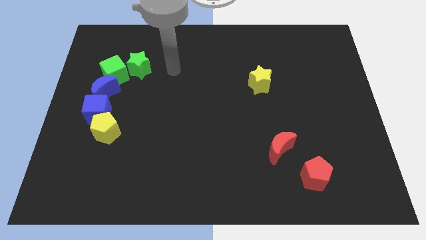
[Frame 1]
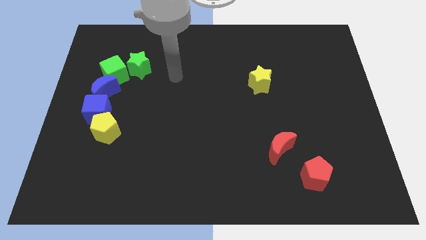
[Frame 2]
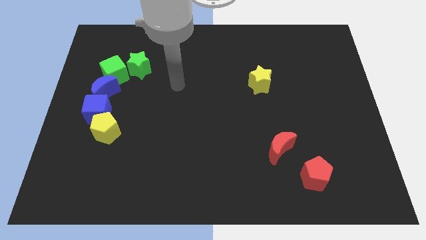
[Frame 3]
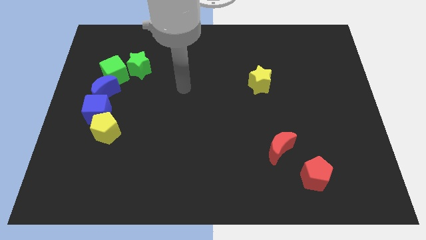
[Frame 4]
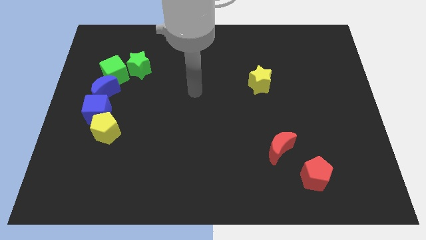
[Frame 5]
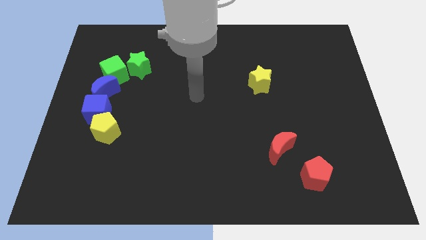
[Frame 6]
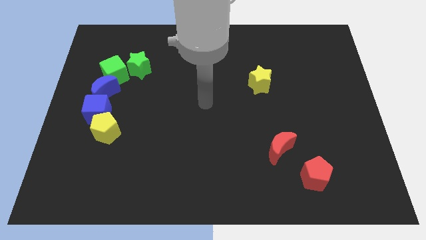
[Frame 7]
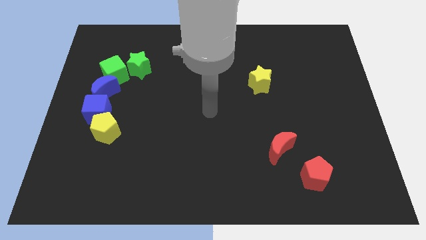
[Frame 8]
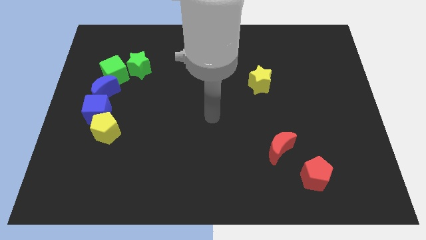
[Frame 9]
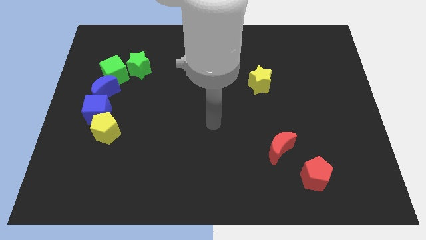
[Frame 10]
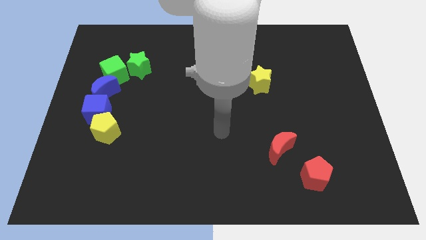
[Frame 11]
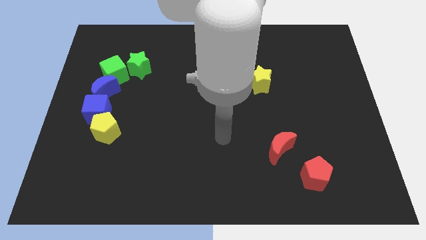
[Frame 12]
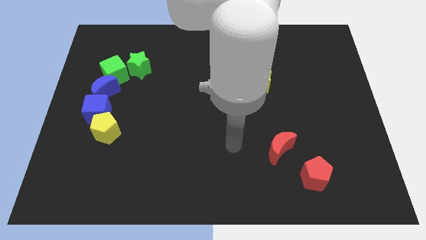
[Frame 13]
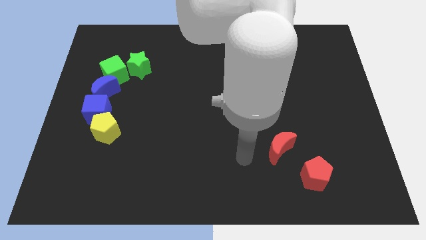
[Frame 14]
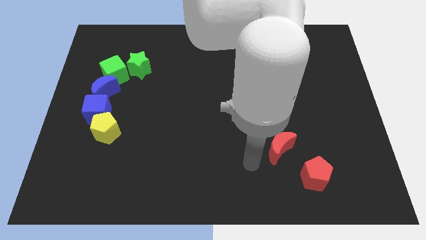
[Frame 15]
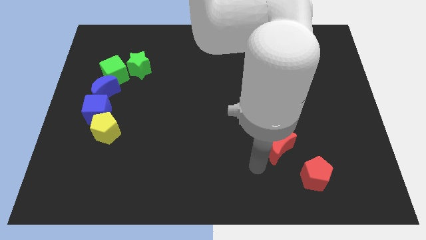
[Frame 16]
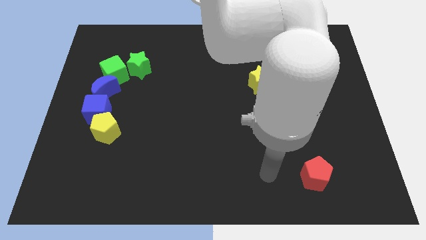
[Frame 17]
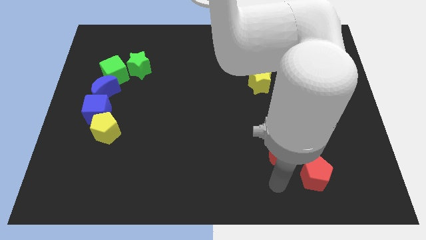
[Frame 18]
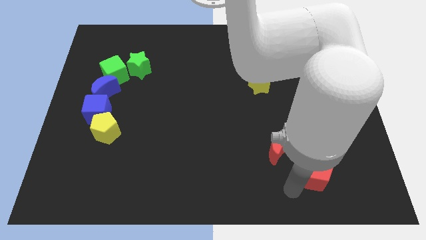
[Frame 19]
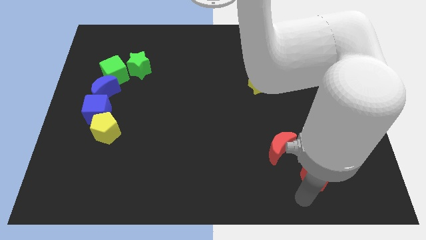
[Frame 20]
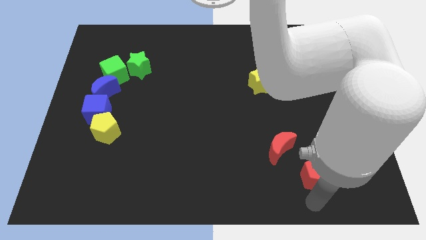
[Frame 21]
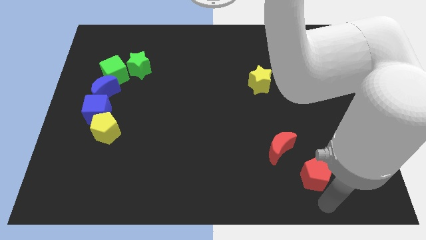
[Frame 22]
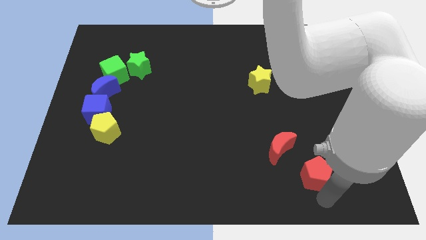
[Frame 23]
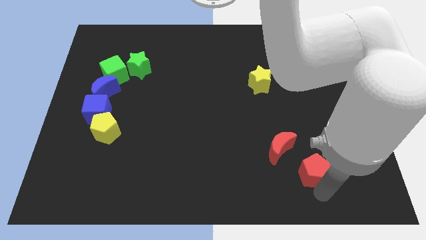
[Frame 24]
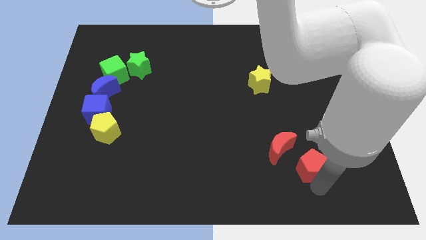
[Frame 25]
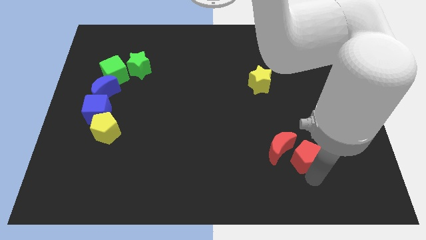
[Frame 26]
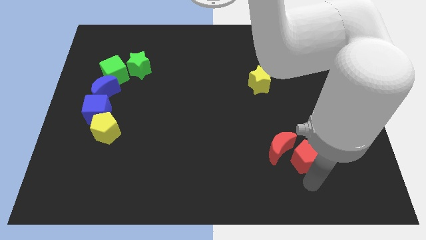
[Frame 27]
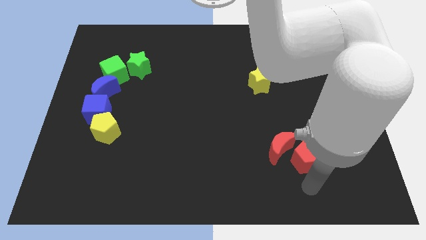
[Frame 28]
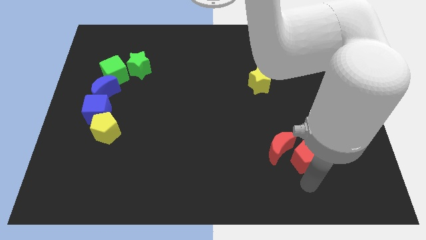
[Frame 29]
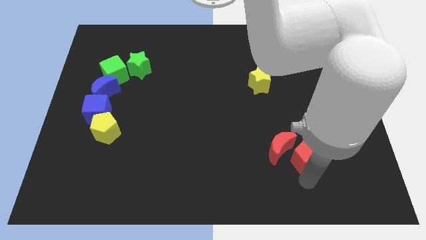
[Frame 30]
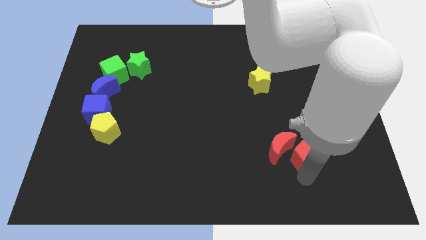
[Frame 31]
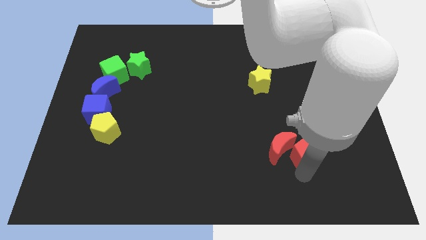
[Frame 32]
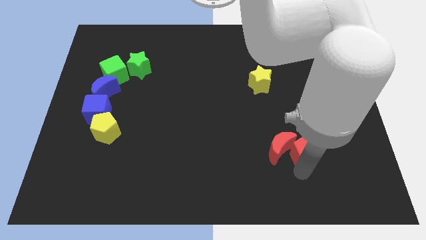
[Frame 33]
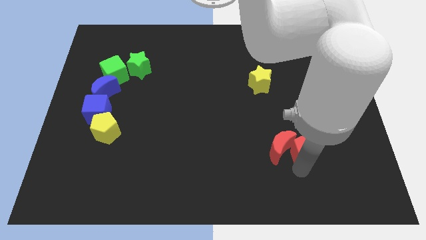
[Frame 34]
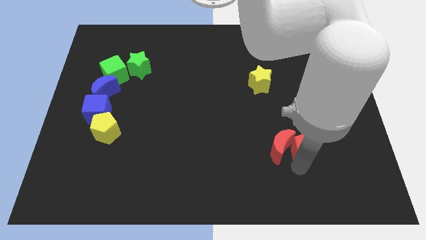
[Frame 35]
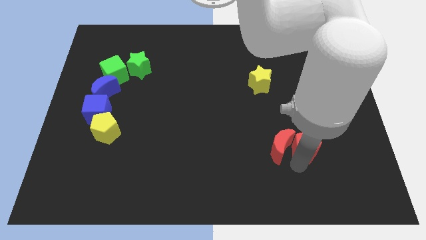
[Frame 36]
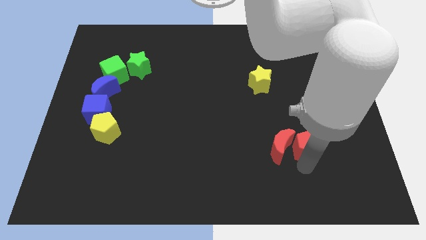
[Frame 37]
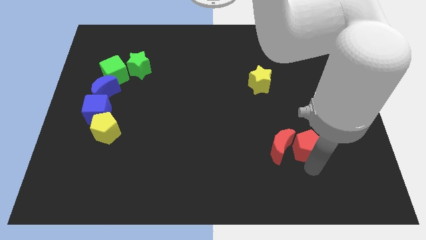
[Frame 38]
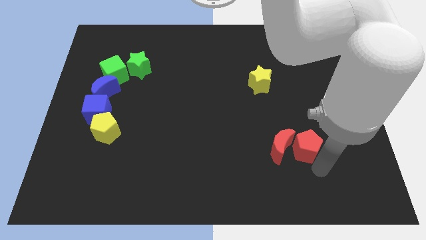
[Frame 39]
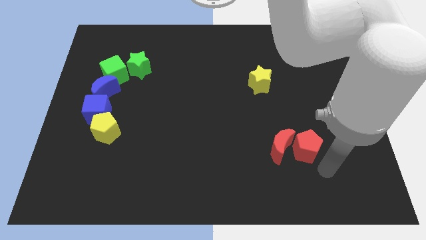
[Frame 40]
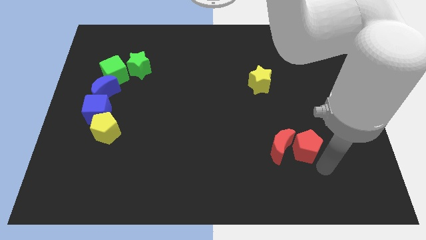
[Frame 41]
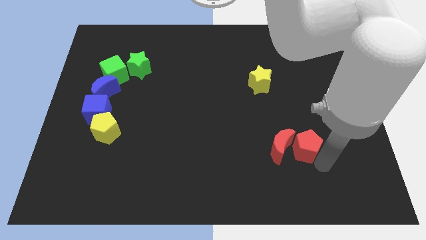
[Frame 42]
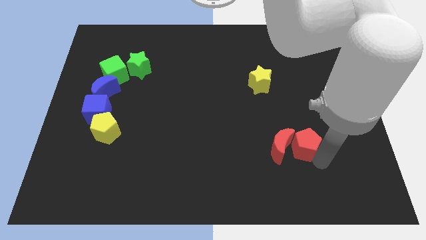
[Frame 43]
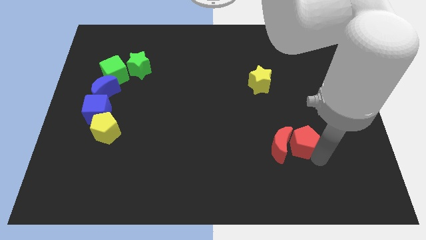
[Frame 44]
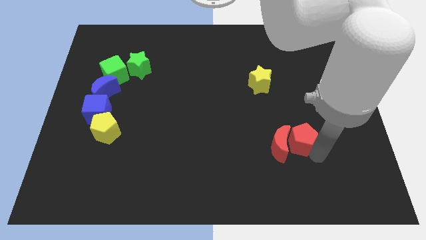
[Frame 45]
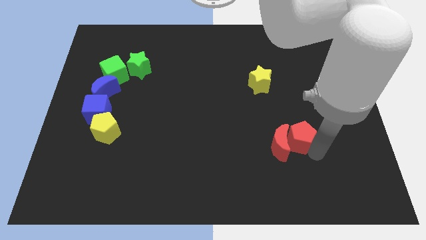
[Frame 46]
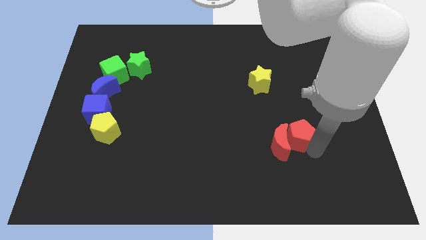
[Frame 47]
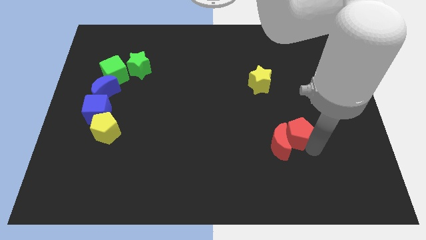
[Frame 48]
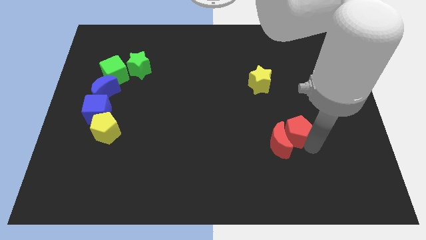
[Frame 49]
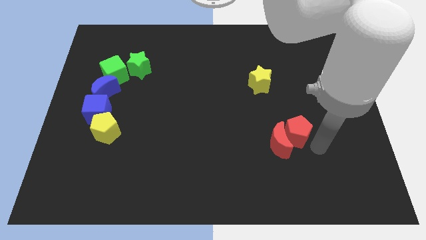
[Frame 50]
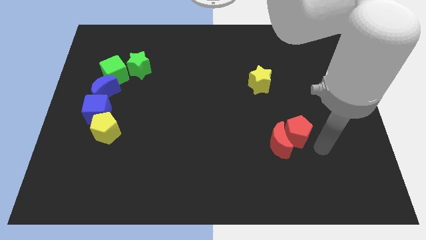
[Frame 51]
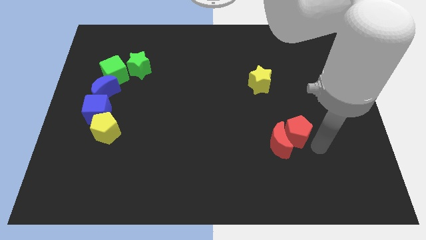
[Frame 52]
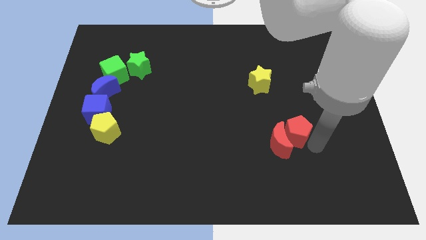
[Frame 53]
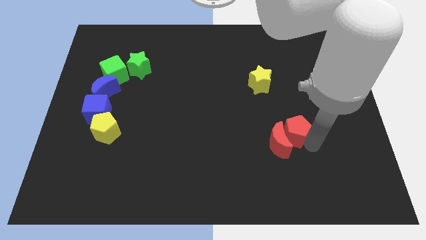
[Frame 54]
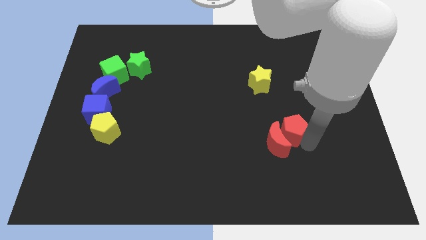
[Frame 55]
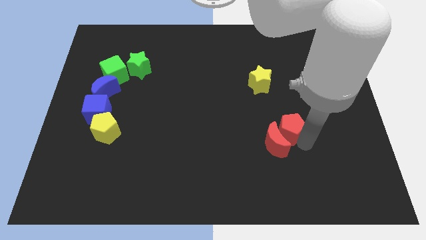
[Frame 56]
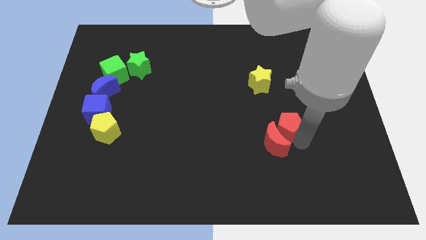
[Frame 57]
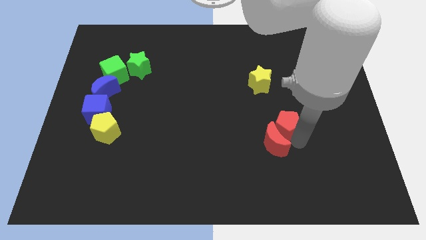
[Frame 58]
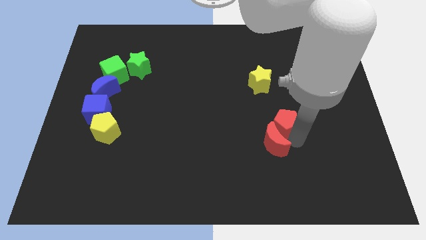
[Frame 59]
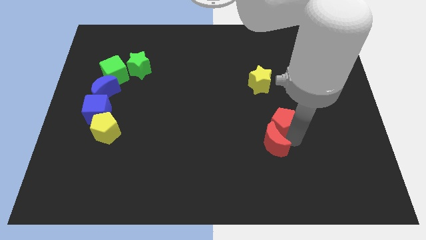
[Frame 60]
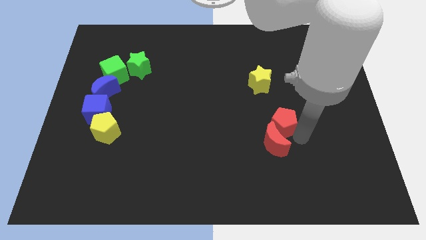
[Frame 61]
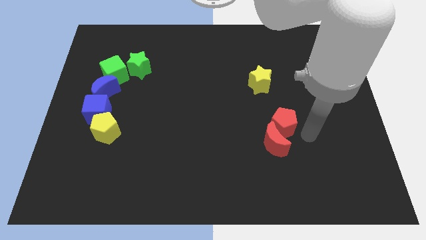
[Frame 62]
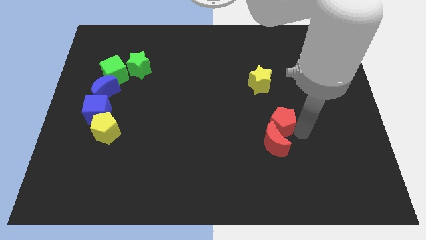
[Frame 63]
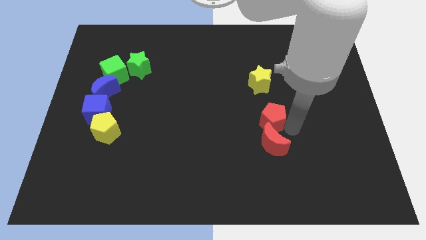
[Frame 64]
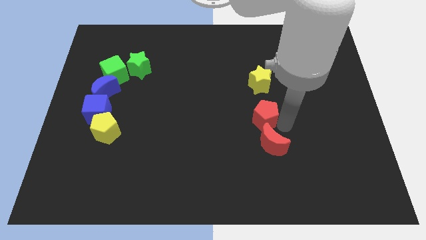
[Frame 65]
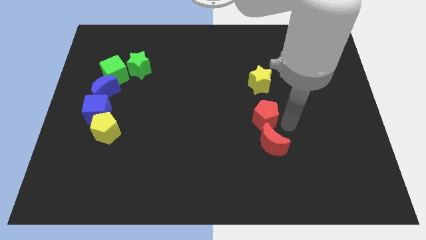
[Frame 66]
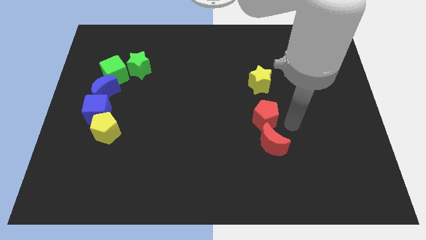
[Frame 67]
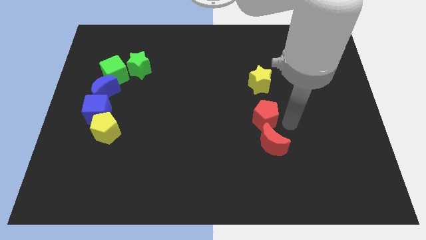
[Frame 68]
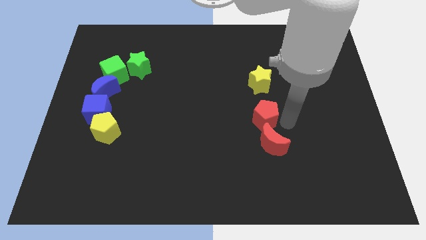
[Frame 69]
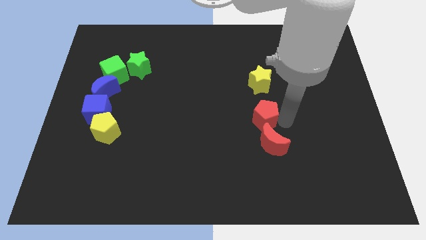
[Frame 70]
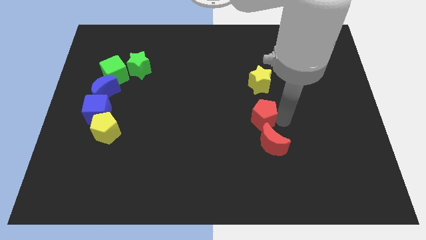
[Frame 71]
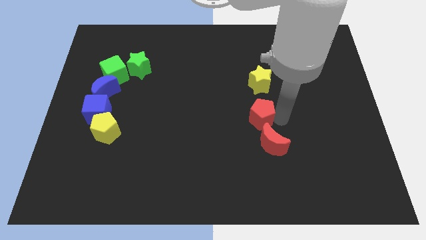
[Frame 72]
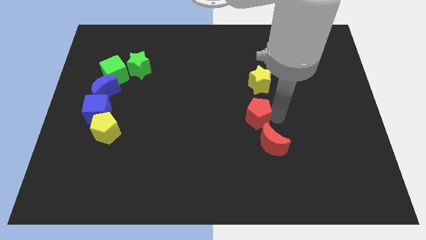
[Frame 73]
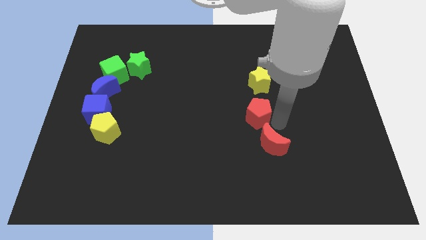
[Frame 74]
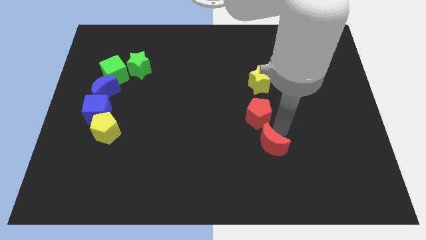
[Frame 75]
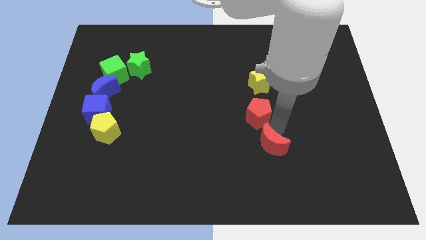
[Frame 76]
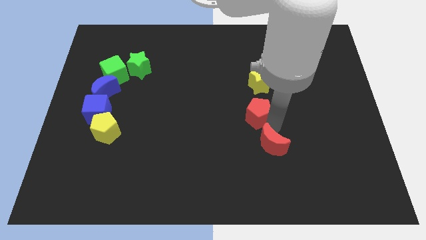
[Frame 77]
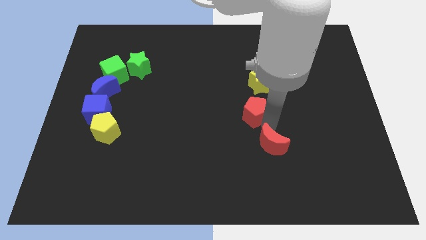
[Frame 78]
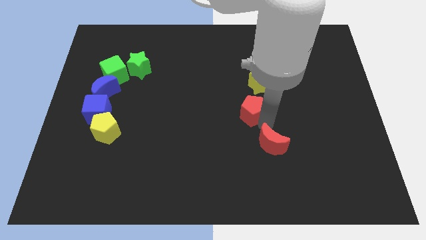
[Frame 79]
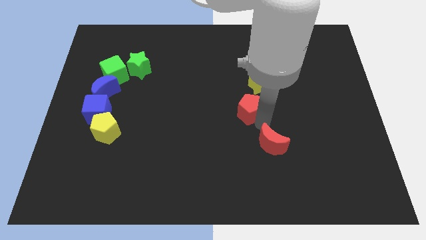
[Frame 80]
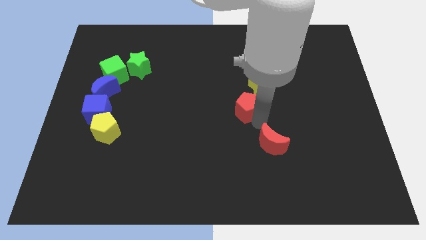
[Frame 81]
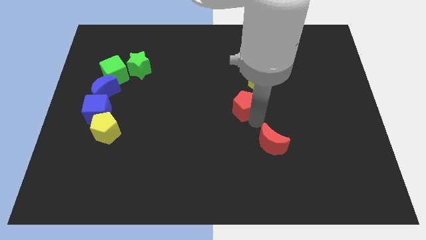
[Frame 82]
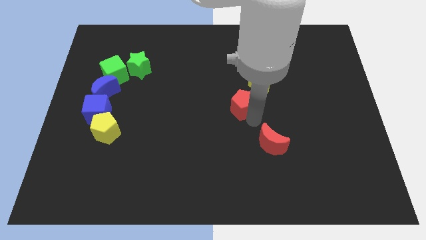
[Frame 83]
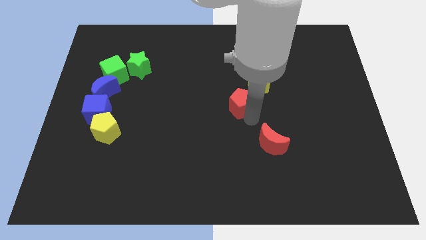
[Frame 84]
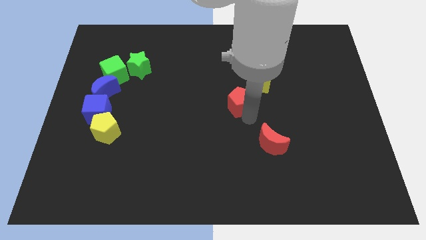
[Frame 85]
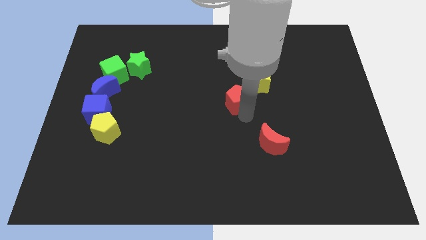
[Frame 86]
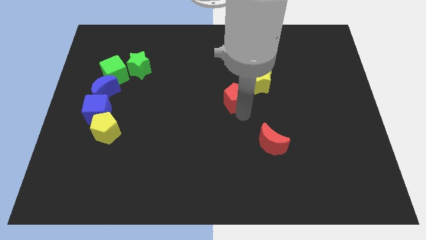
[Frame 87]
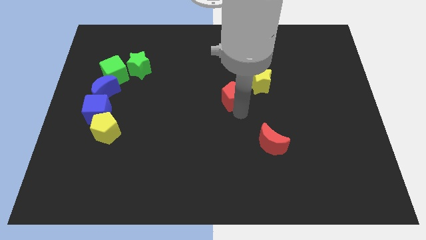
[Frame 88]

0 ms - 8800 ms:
slide the red pentagon just left of the yellow star
